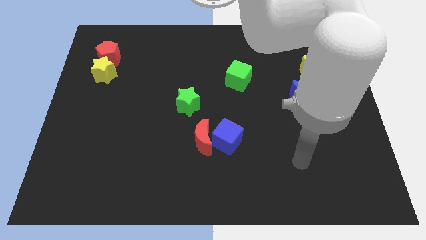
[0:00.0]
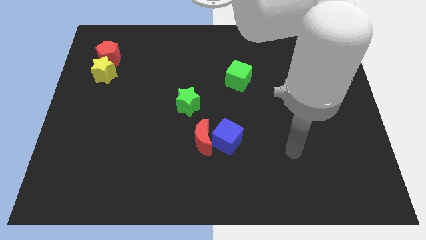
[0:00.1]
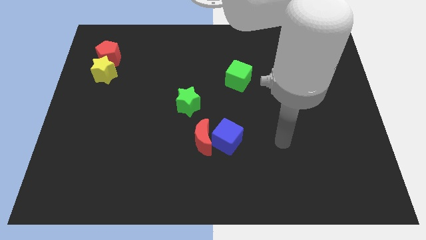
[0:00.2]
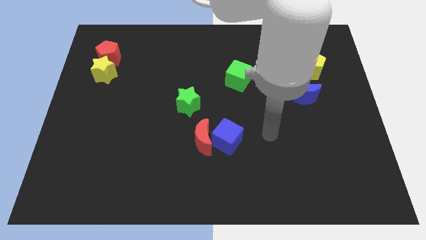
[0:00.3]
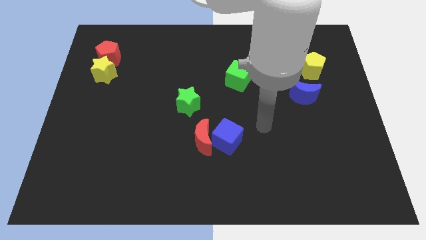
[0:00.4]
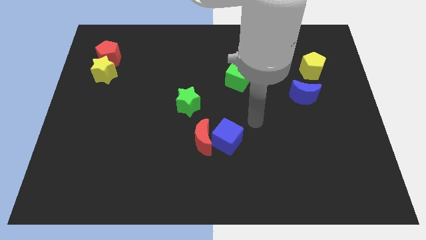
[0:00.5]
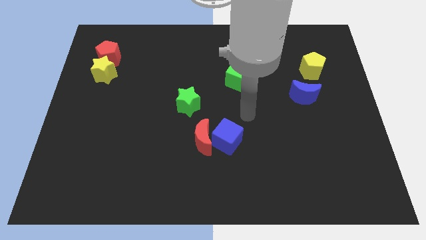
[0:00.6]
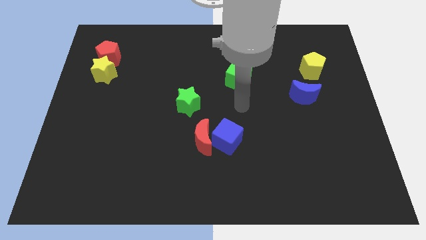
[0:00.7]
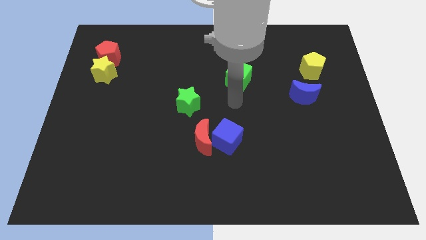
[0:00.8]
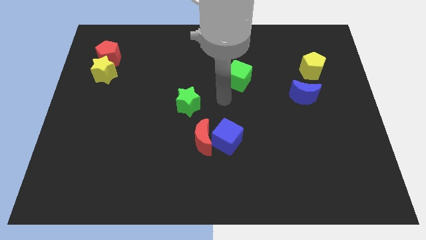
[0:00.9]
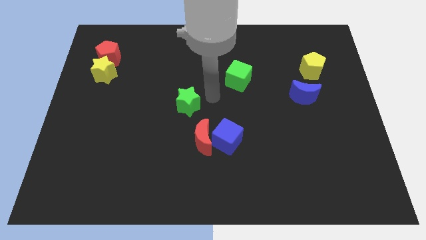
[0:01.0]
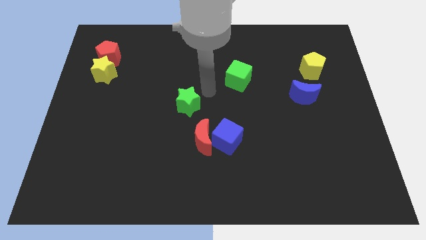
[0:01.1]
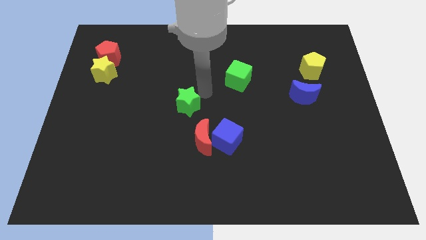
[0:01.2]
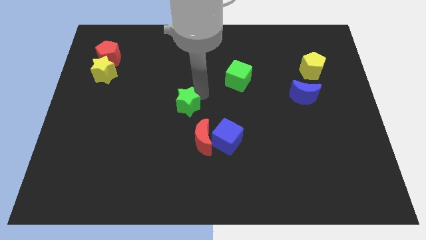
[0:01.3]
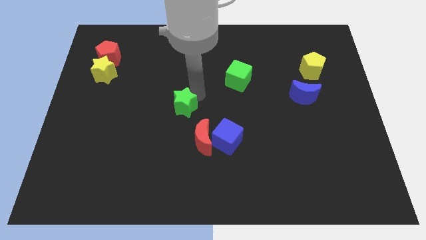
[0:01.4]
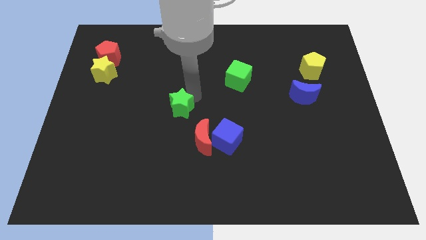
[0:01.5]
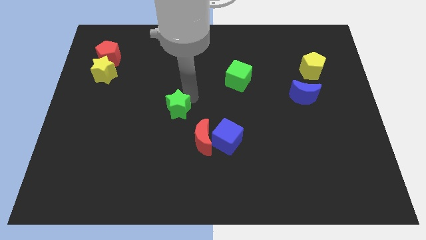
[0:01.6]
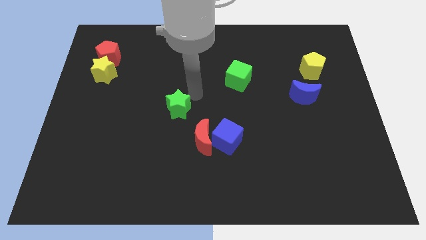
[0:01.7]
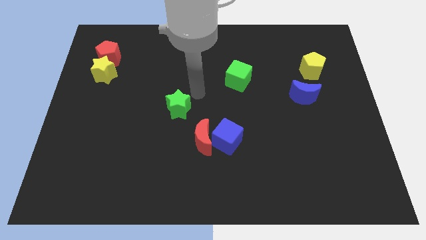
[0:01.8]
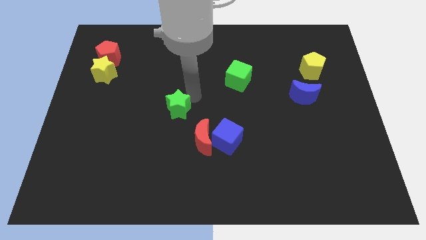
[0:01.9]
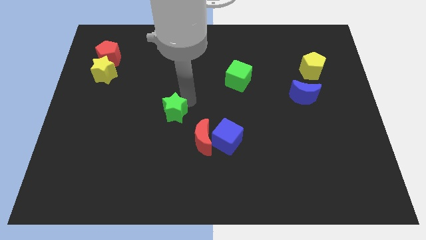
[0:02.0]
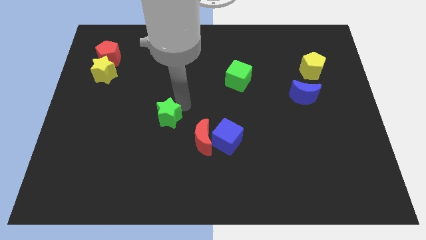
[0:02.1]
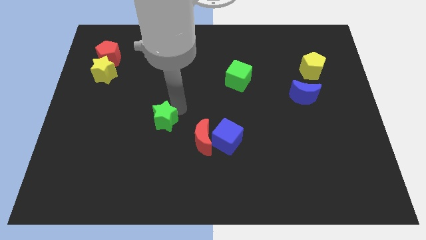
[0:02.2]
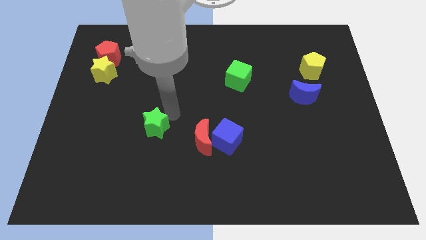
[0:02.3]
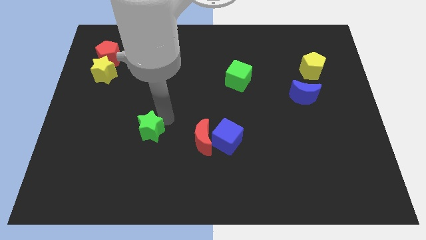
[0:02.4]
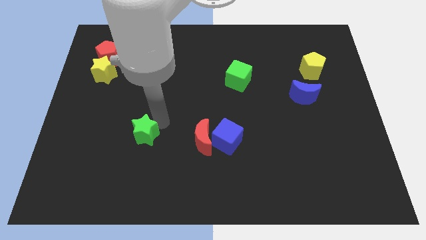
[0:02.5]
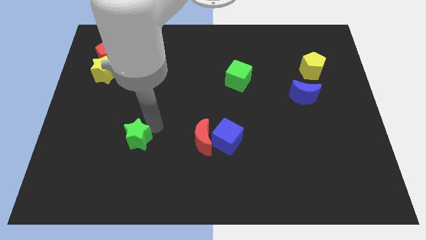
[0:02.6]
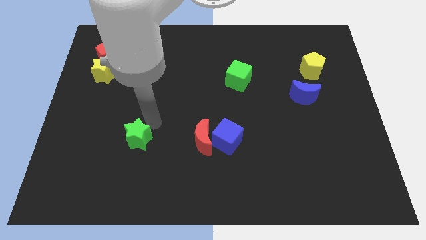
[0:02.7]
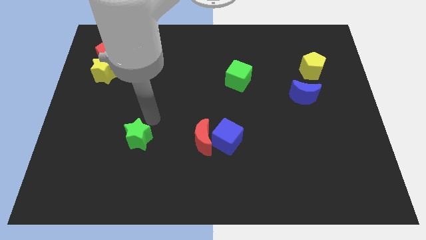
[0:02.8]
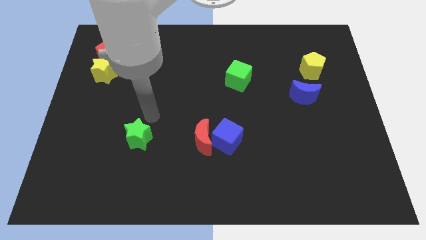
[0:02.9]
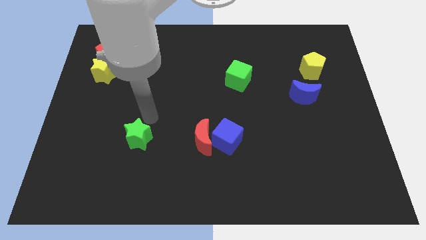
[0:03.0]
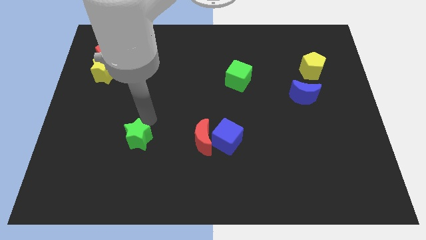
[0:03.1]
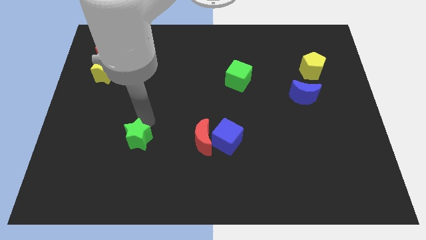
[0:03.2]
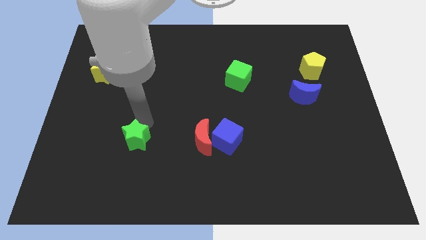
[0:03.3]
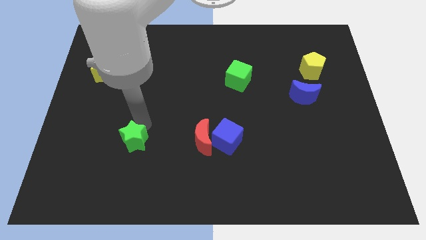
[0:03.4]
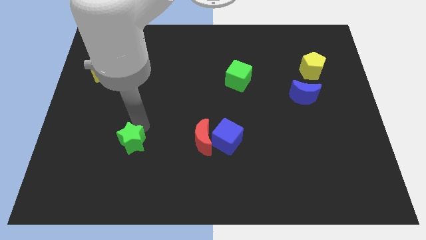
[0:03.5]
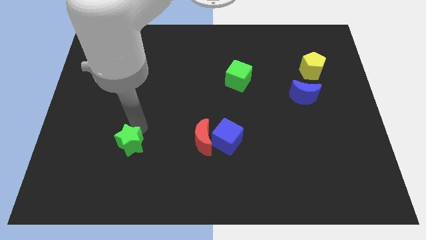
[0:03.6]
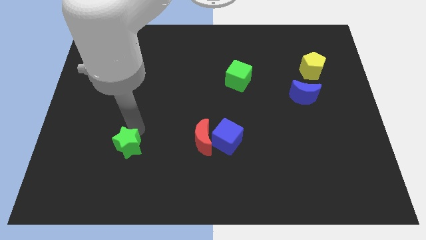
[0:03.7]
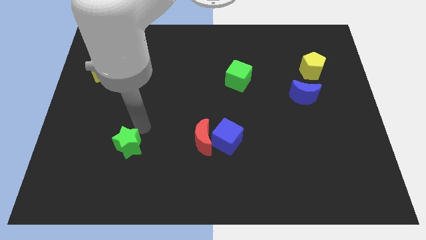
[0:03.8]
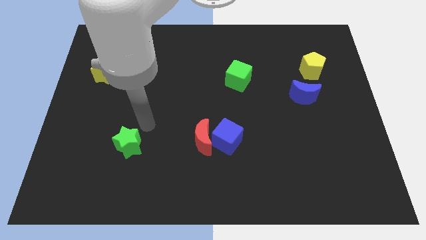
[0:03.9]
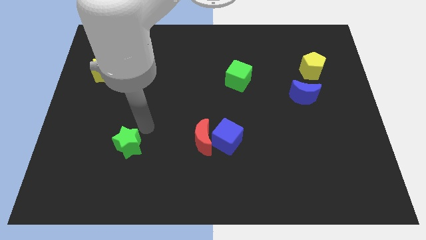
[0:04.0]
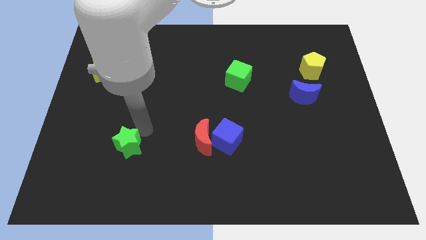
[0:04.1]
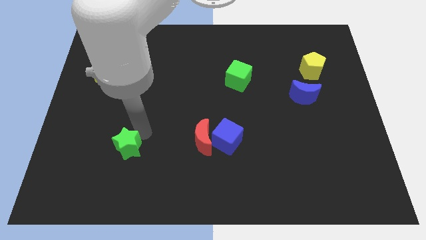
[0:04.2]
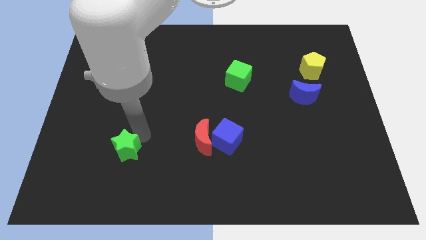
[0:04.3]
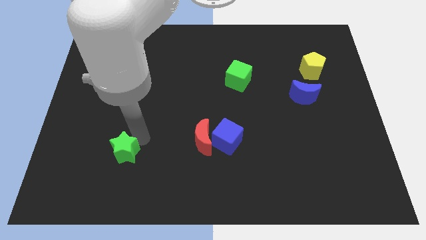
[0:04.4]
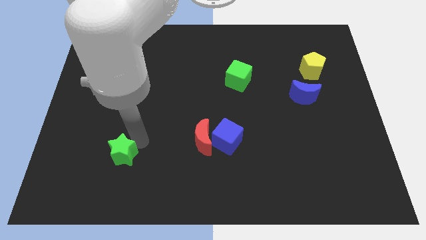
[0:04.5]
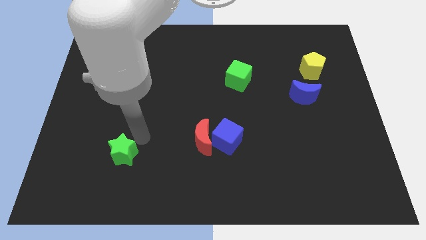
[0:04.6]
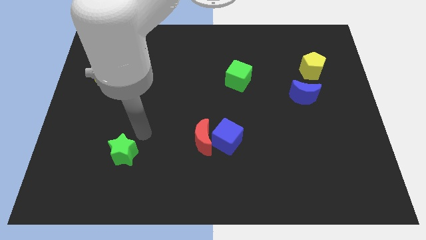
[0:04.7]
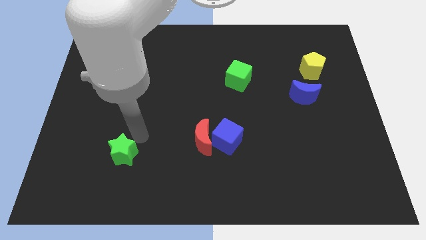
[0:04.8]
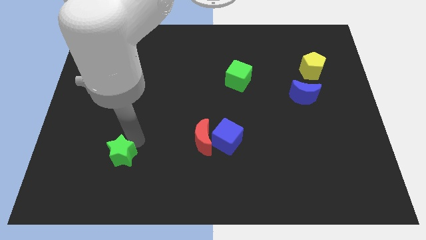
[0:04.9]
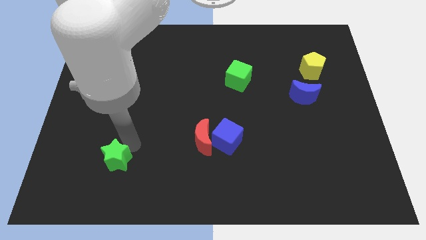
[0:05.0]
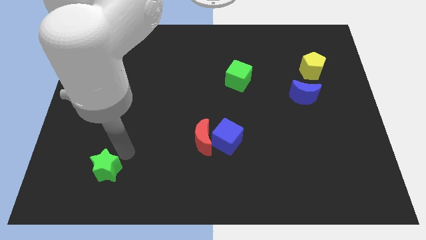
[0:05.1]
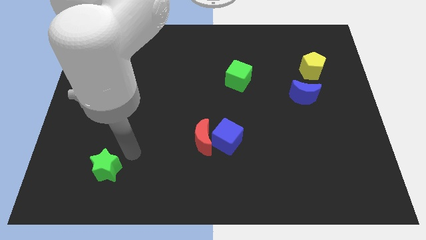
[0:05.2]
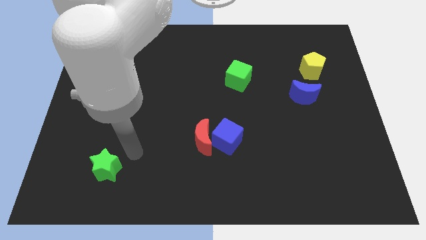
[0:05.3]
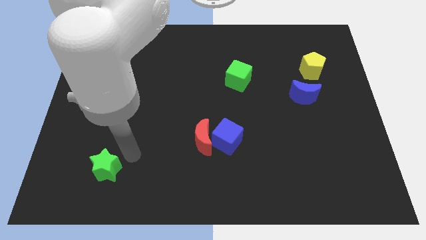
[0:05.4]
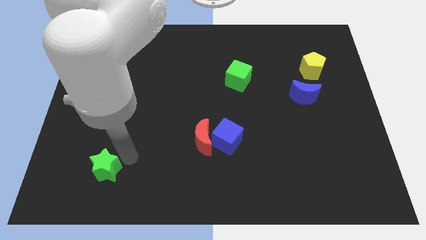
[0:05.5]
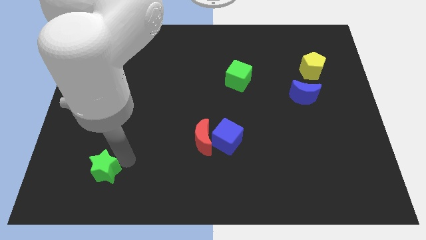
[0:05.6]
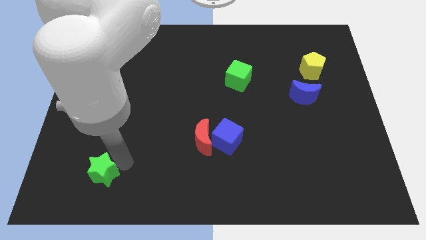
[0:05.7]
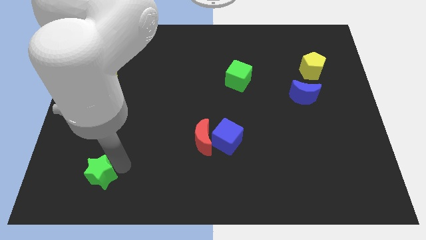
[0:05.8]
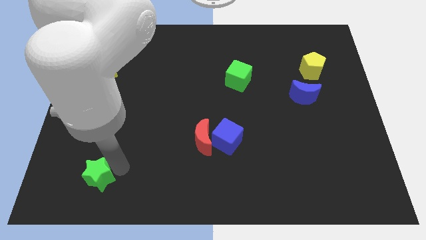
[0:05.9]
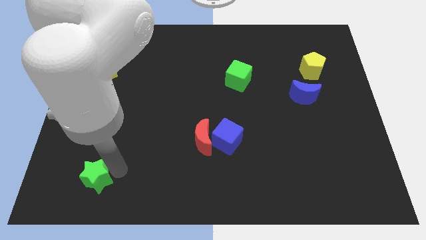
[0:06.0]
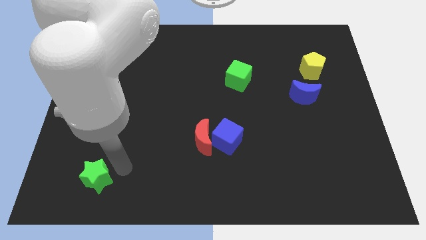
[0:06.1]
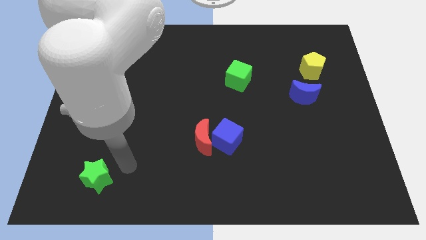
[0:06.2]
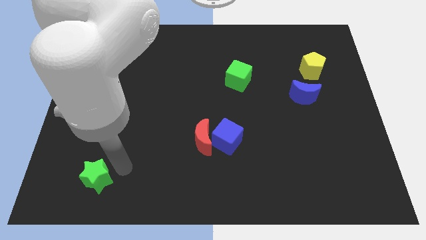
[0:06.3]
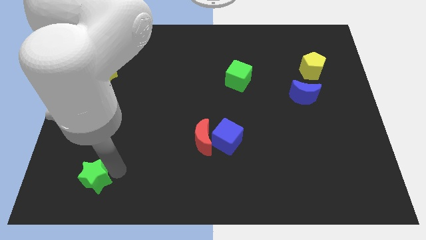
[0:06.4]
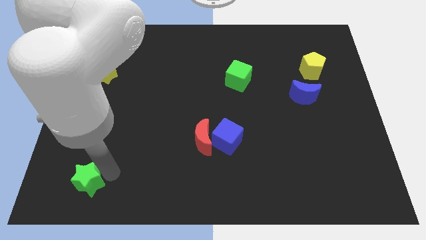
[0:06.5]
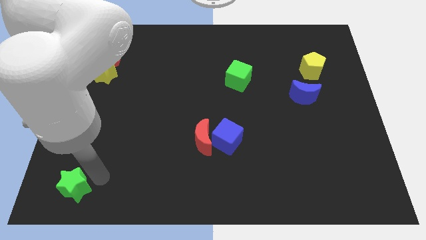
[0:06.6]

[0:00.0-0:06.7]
slide the green star to the bottom left
